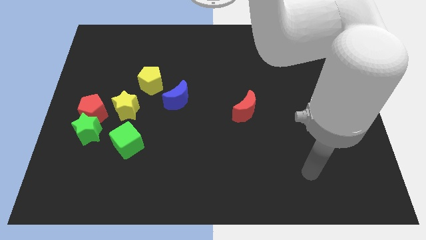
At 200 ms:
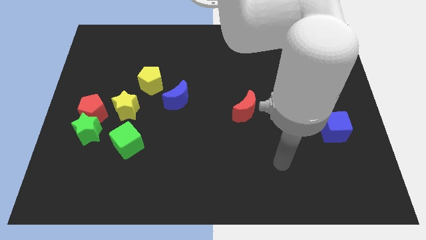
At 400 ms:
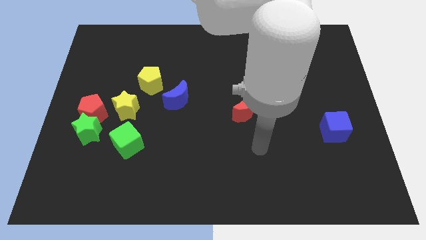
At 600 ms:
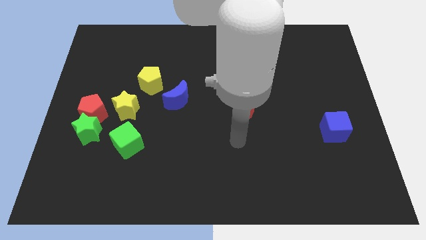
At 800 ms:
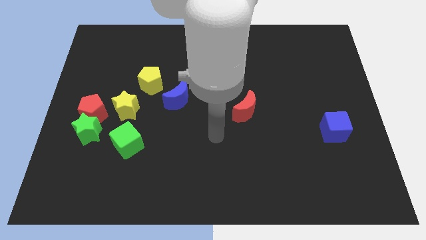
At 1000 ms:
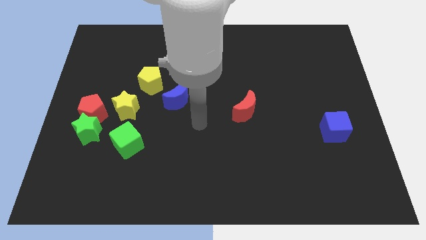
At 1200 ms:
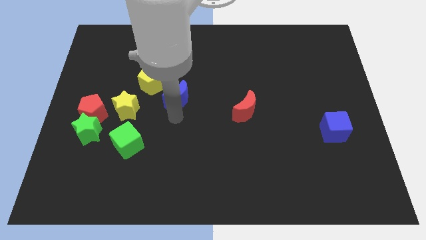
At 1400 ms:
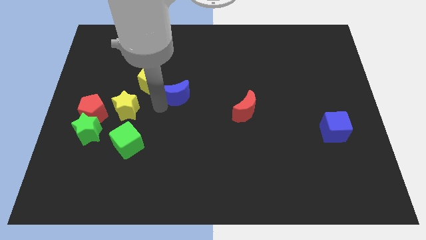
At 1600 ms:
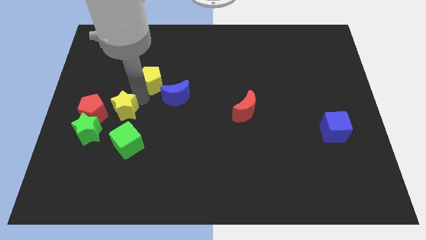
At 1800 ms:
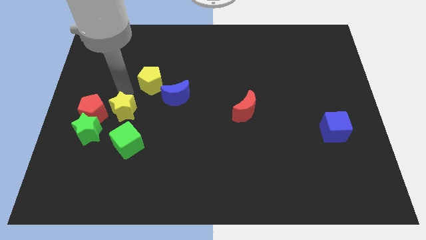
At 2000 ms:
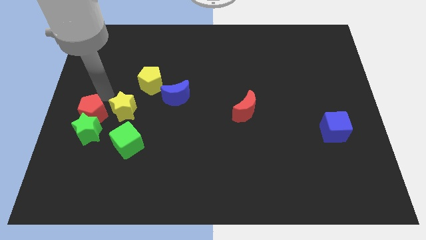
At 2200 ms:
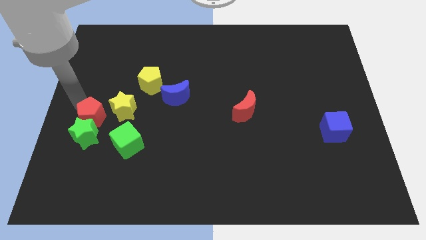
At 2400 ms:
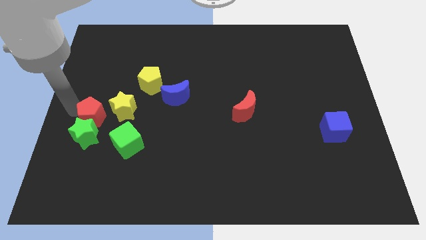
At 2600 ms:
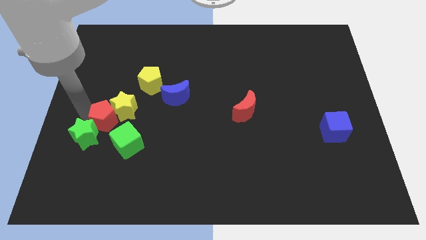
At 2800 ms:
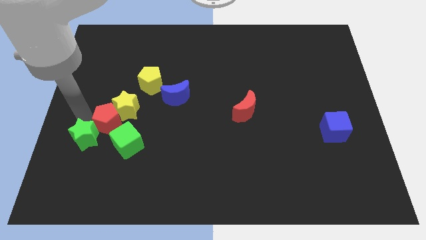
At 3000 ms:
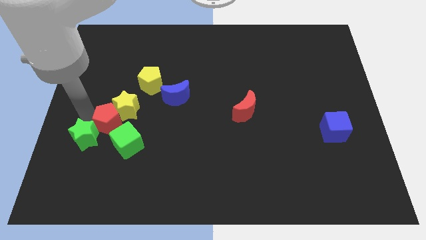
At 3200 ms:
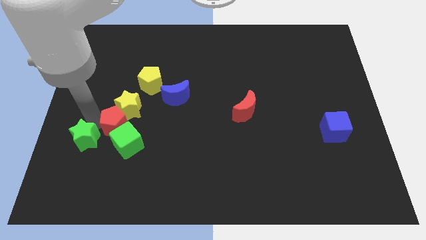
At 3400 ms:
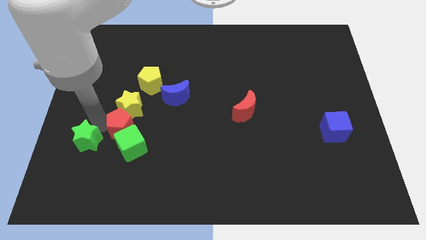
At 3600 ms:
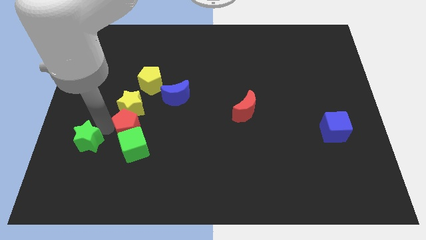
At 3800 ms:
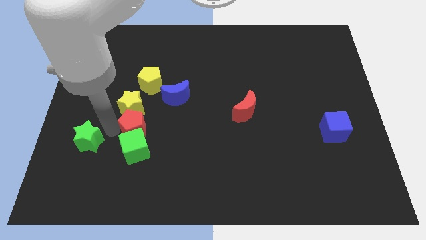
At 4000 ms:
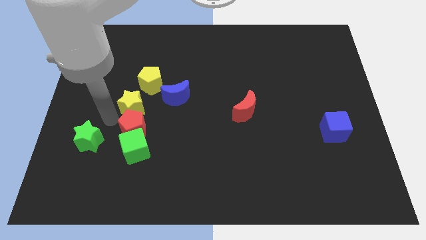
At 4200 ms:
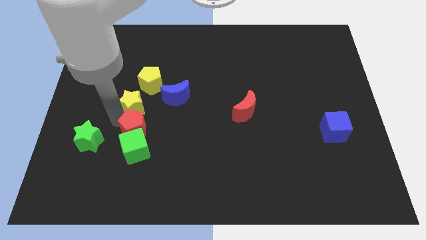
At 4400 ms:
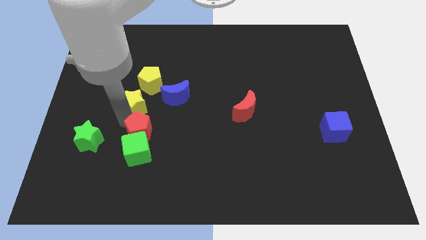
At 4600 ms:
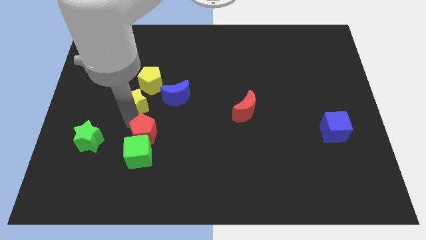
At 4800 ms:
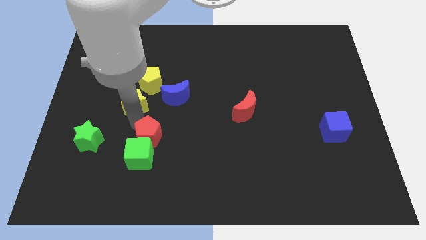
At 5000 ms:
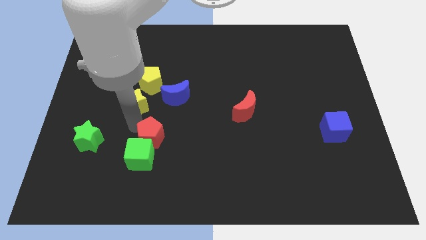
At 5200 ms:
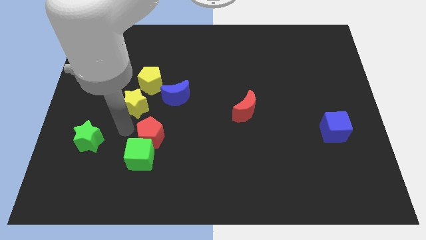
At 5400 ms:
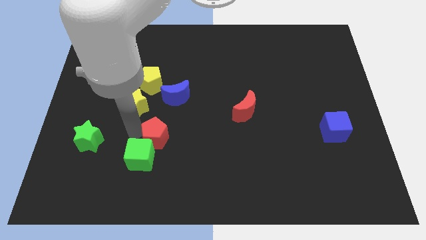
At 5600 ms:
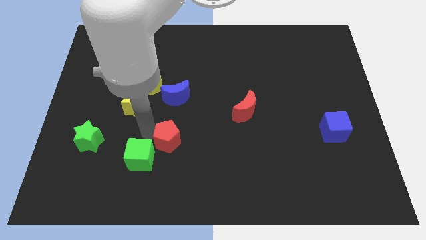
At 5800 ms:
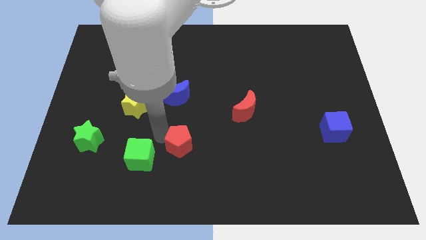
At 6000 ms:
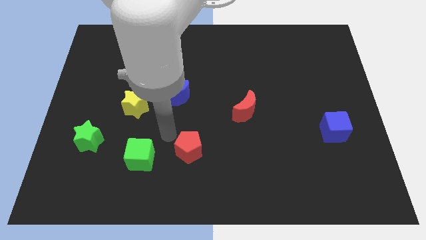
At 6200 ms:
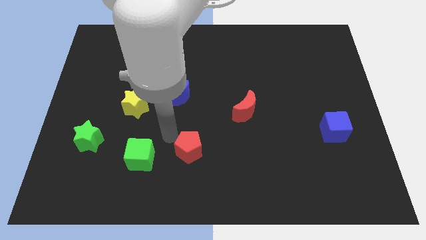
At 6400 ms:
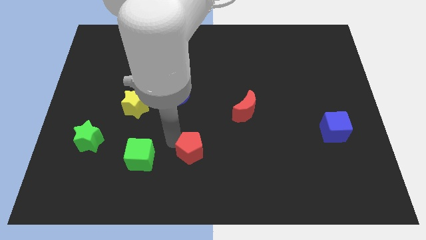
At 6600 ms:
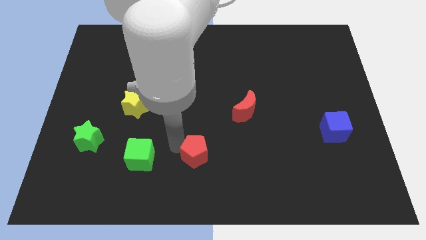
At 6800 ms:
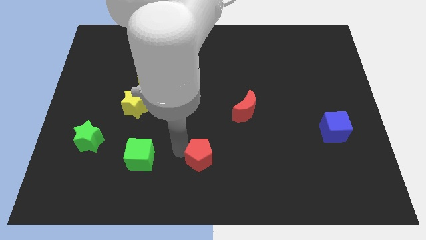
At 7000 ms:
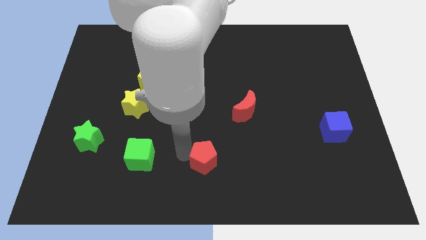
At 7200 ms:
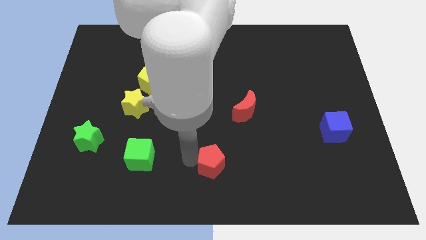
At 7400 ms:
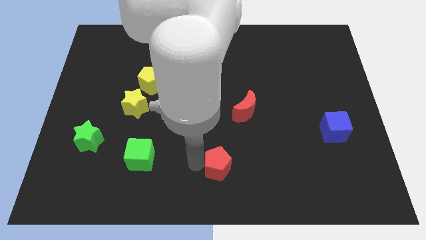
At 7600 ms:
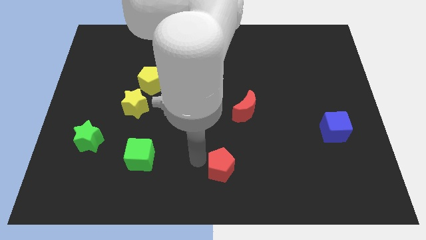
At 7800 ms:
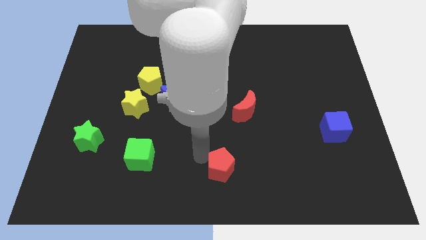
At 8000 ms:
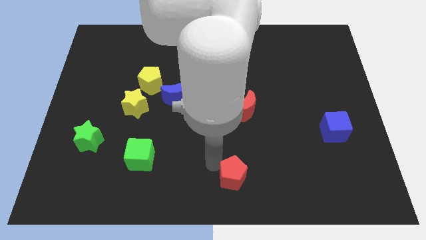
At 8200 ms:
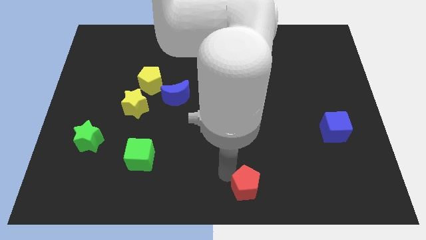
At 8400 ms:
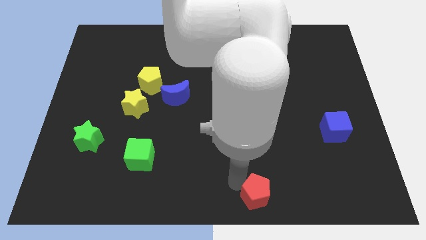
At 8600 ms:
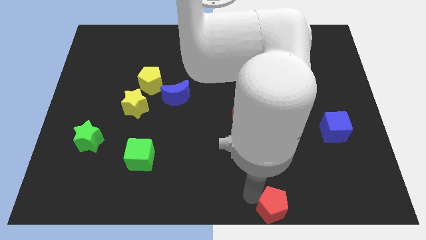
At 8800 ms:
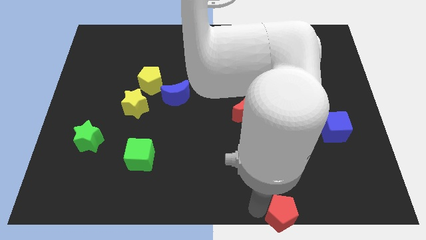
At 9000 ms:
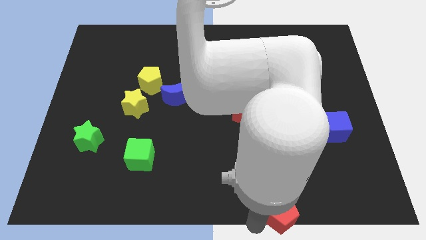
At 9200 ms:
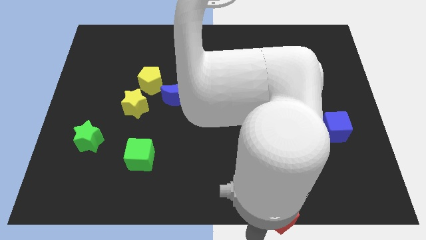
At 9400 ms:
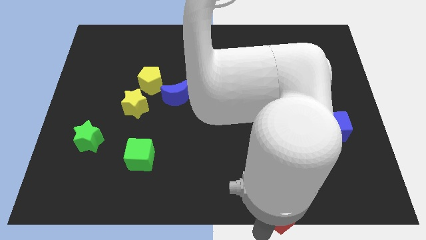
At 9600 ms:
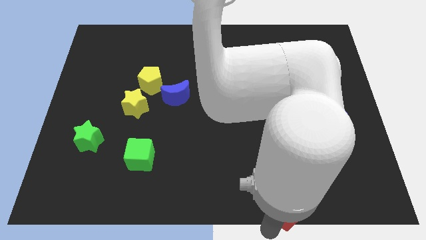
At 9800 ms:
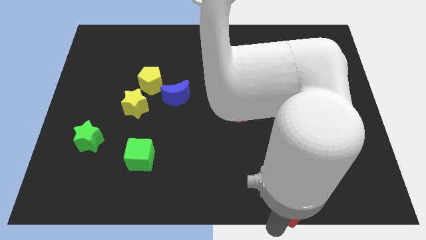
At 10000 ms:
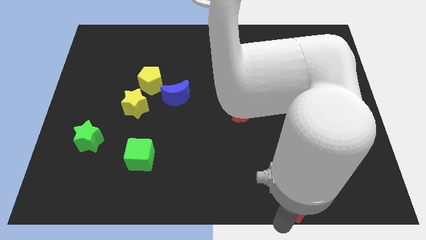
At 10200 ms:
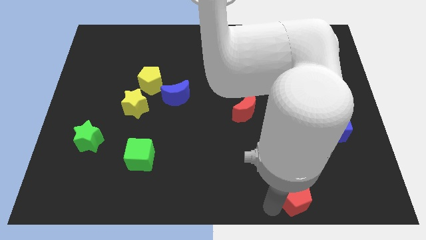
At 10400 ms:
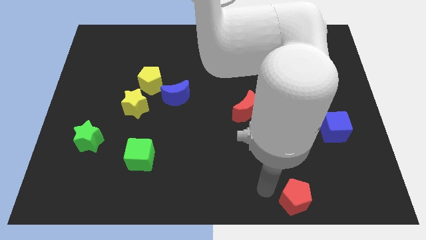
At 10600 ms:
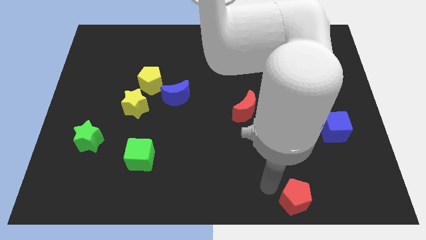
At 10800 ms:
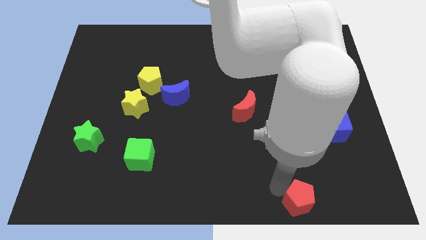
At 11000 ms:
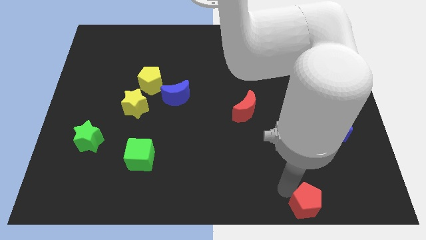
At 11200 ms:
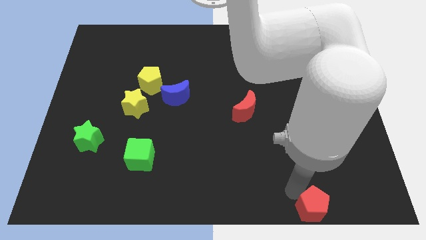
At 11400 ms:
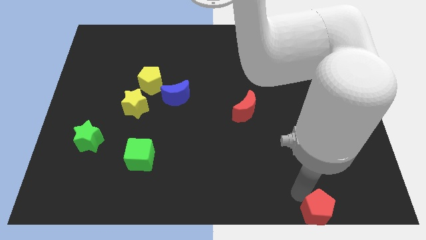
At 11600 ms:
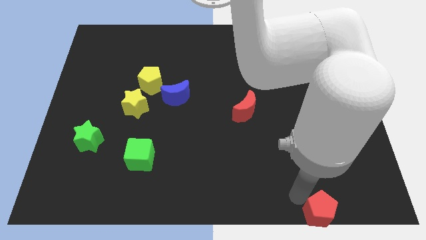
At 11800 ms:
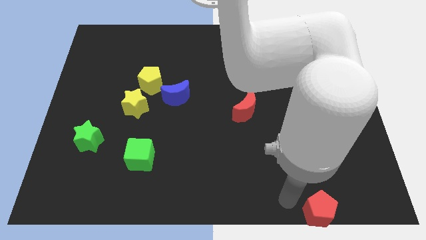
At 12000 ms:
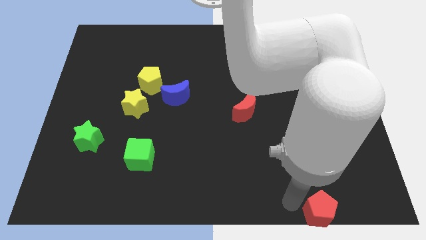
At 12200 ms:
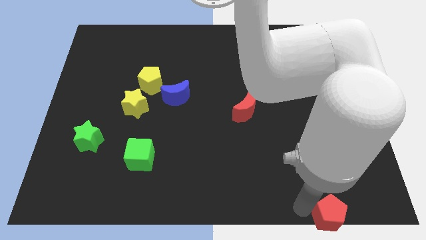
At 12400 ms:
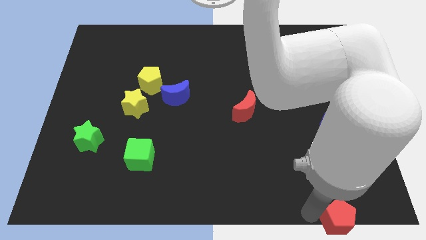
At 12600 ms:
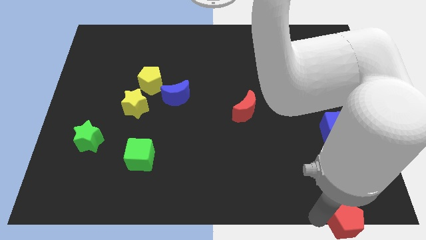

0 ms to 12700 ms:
put the red pentagon to the bottom right

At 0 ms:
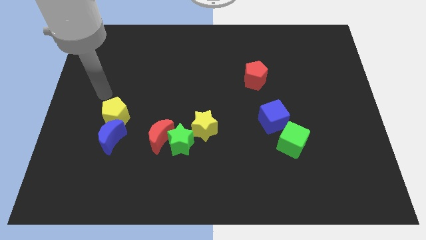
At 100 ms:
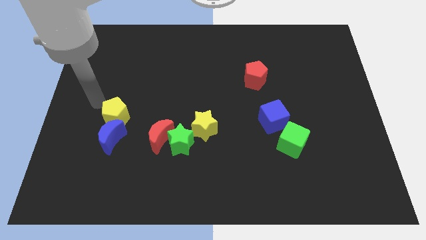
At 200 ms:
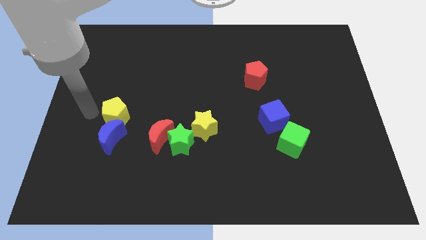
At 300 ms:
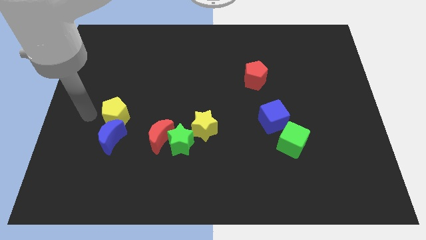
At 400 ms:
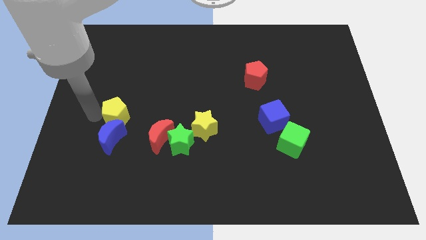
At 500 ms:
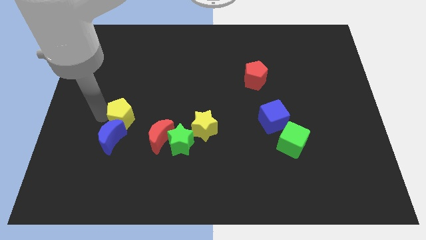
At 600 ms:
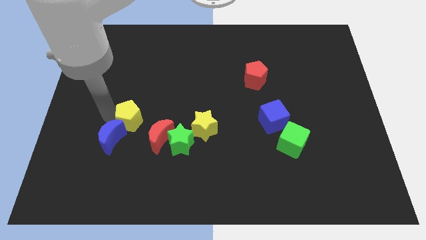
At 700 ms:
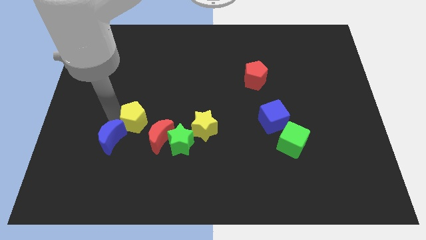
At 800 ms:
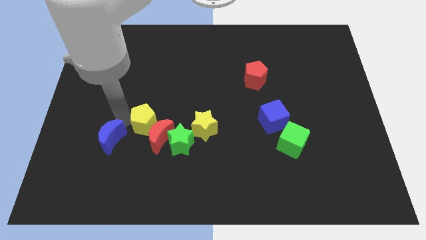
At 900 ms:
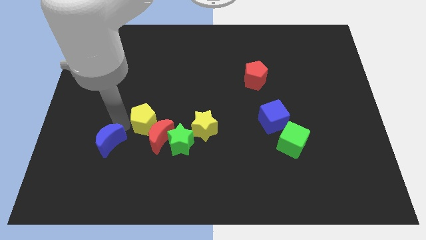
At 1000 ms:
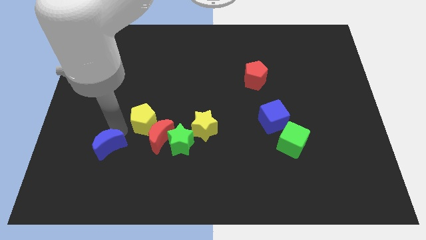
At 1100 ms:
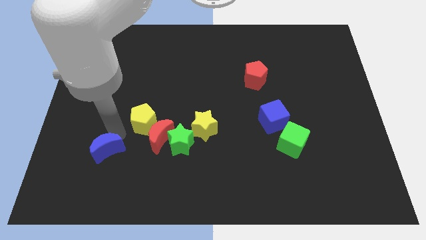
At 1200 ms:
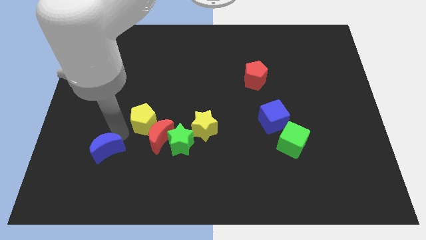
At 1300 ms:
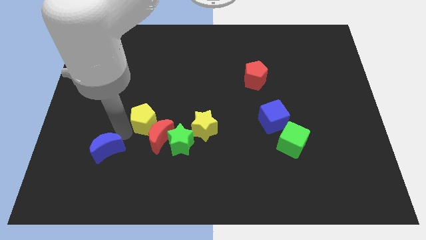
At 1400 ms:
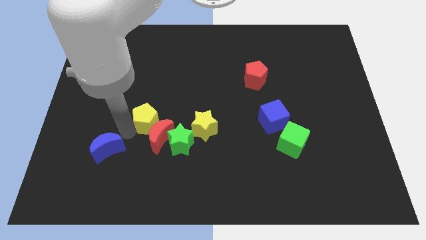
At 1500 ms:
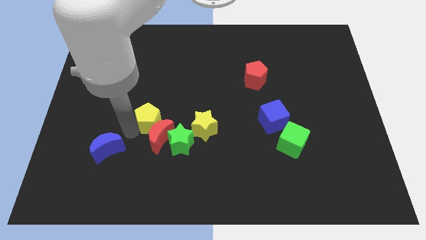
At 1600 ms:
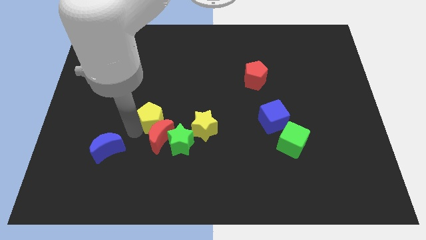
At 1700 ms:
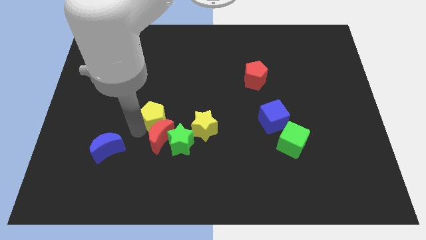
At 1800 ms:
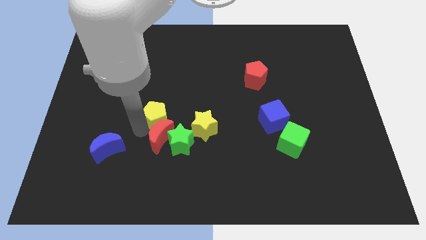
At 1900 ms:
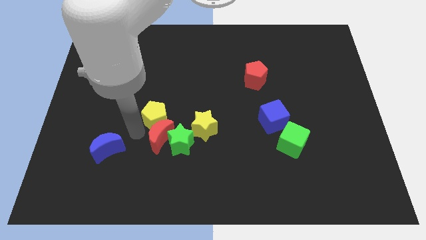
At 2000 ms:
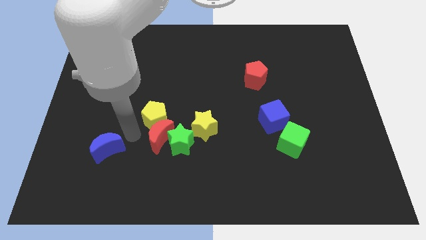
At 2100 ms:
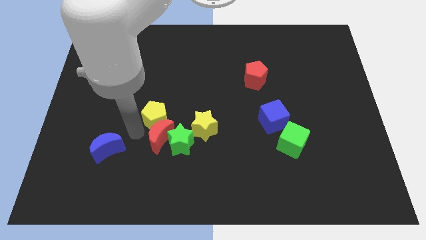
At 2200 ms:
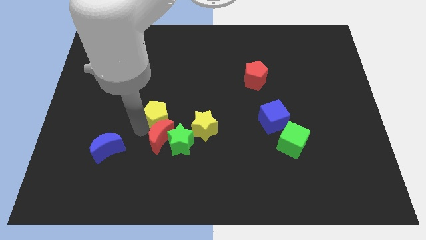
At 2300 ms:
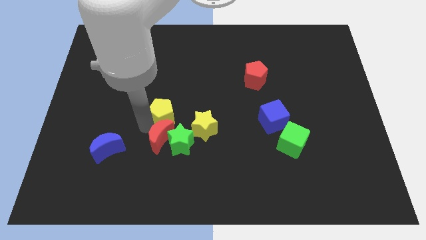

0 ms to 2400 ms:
push the yellow pentagon to the middle of the board
